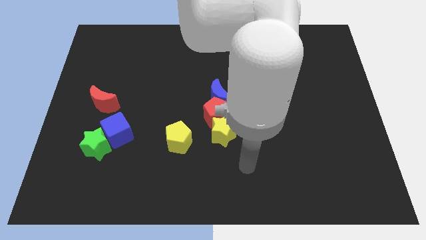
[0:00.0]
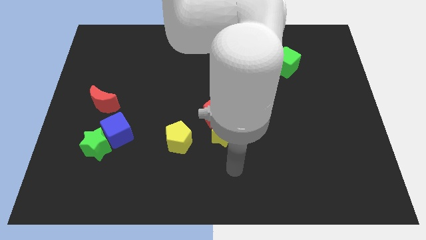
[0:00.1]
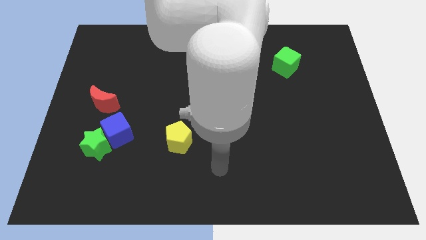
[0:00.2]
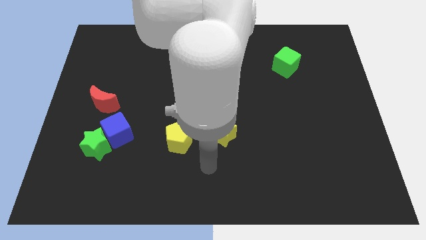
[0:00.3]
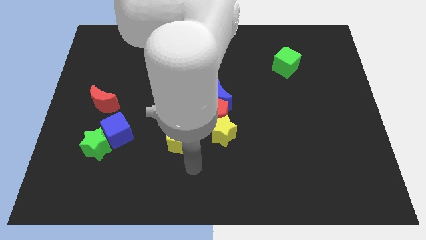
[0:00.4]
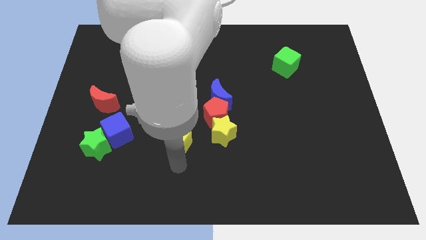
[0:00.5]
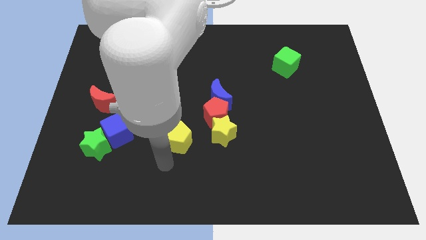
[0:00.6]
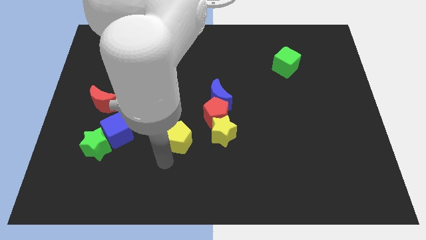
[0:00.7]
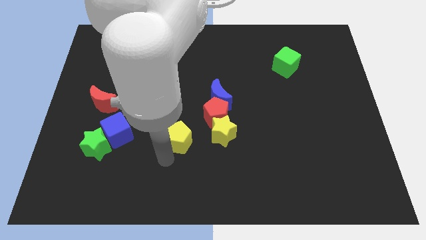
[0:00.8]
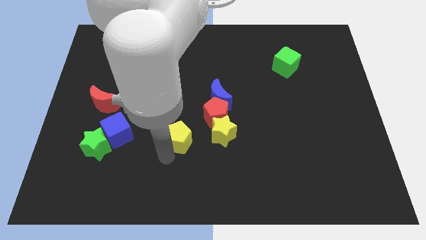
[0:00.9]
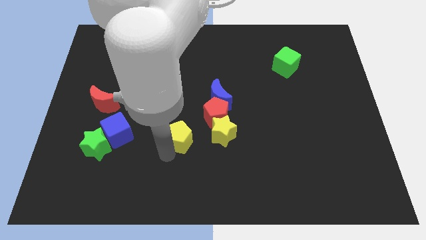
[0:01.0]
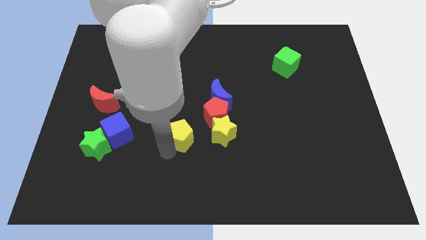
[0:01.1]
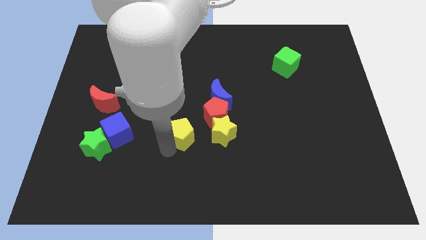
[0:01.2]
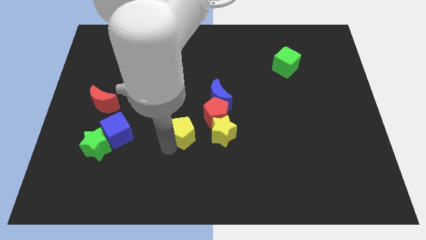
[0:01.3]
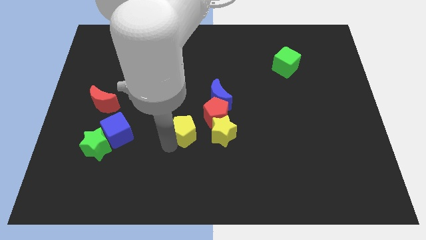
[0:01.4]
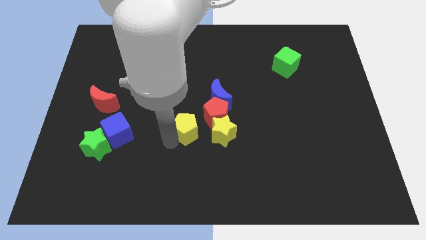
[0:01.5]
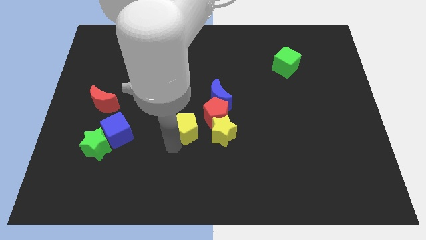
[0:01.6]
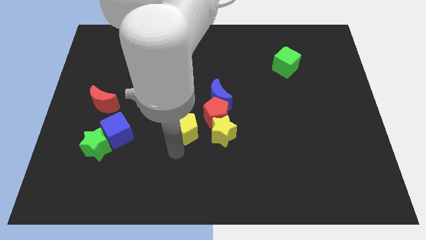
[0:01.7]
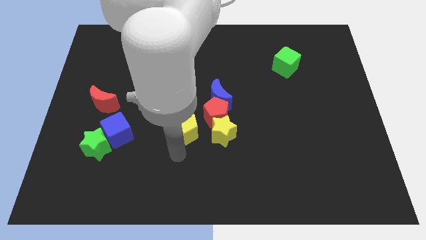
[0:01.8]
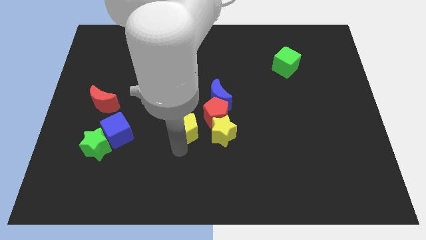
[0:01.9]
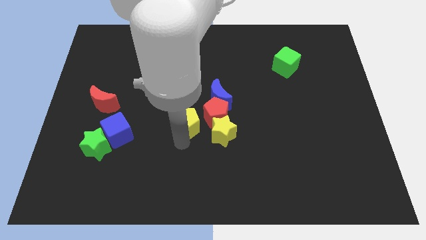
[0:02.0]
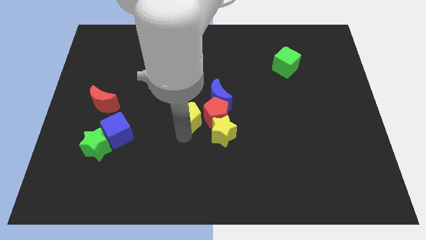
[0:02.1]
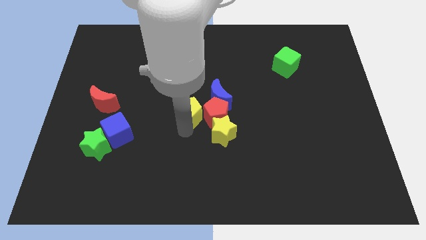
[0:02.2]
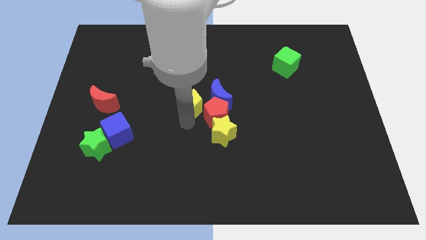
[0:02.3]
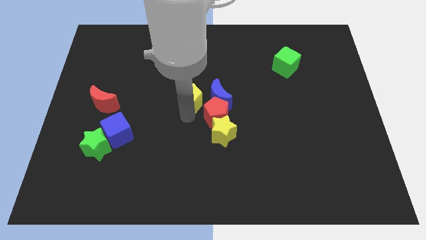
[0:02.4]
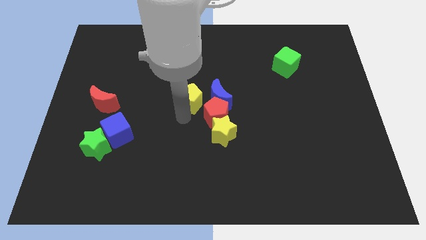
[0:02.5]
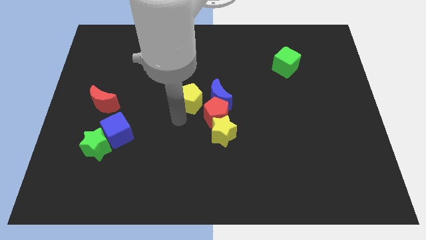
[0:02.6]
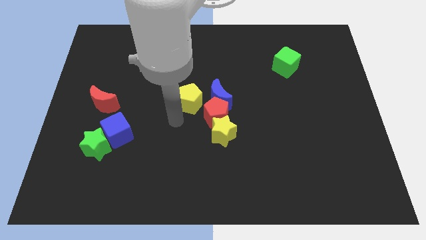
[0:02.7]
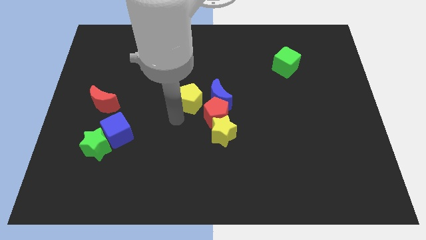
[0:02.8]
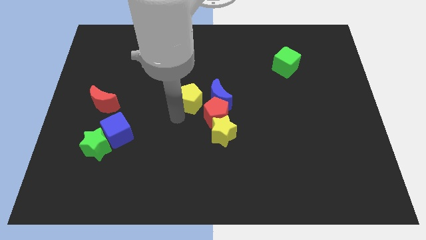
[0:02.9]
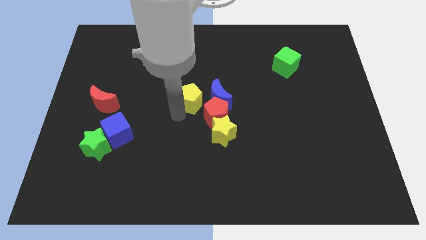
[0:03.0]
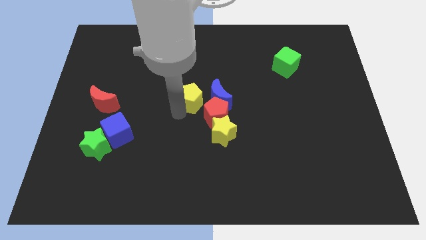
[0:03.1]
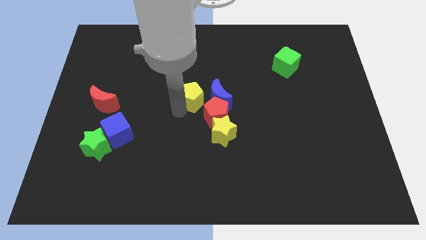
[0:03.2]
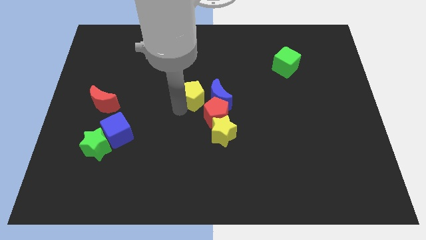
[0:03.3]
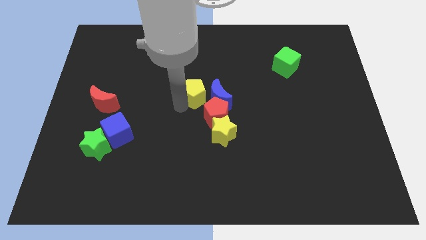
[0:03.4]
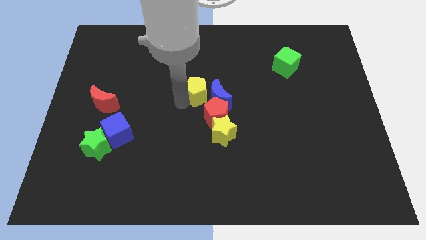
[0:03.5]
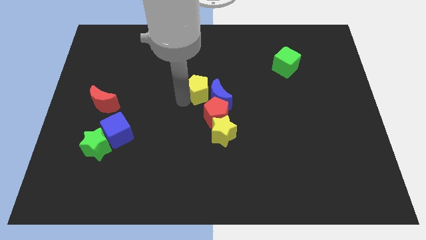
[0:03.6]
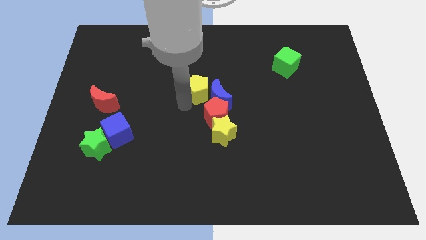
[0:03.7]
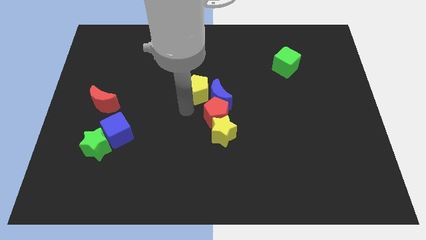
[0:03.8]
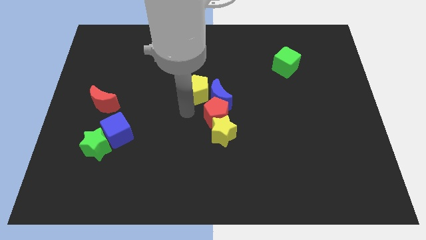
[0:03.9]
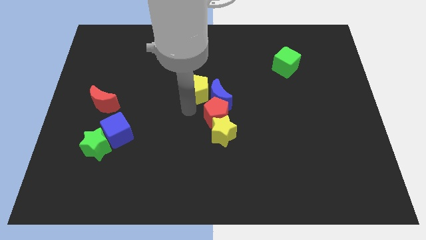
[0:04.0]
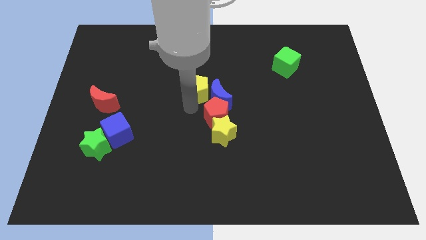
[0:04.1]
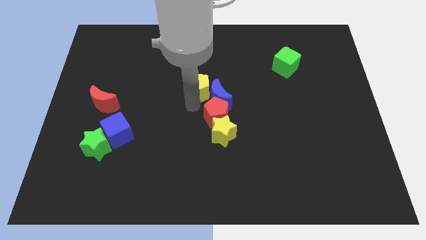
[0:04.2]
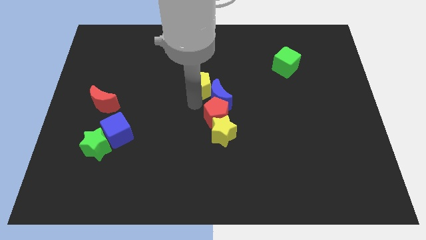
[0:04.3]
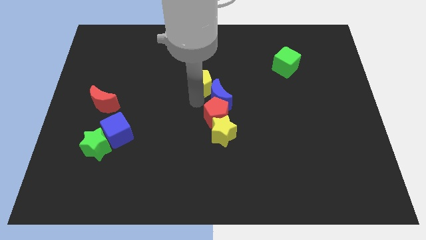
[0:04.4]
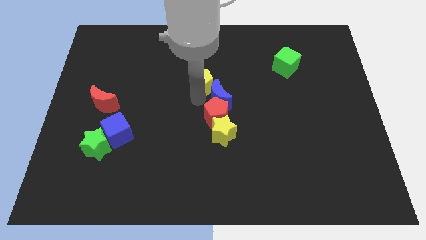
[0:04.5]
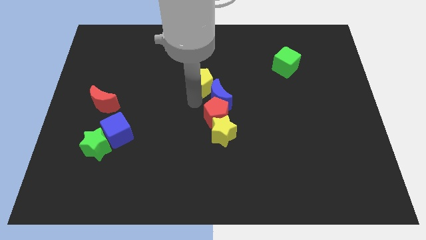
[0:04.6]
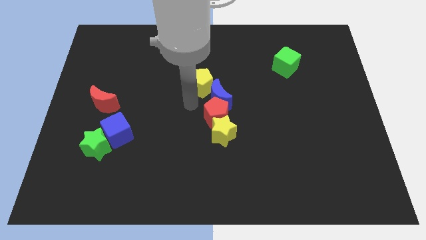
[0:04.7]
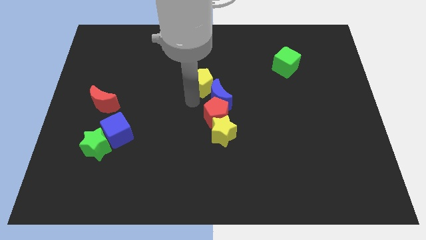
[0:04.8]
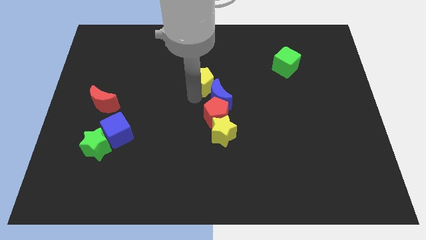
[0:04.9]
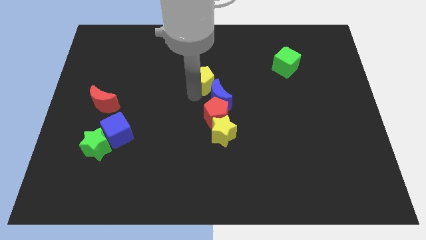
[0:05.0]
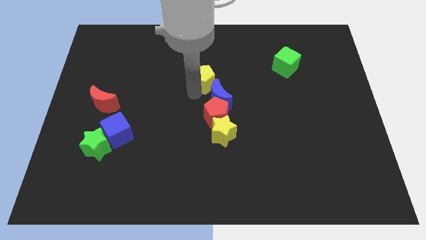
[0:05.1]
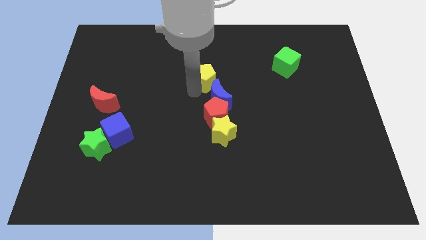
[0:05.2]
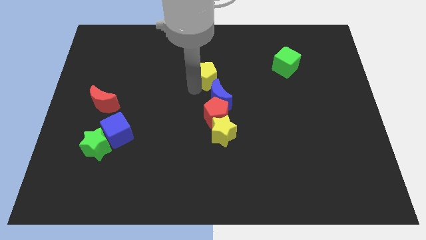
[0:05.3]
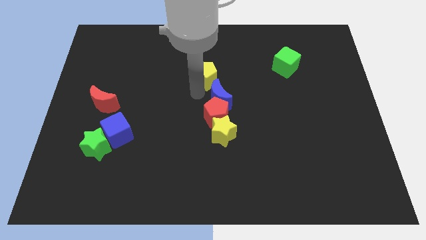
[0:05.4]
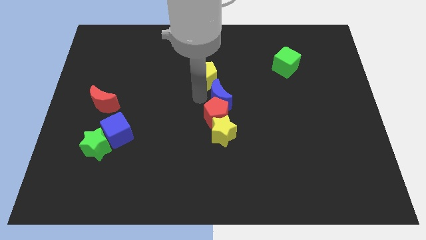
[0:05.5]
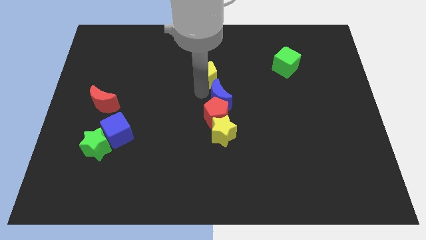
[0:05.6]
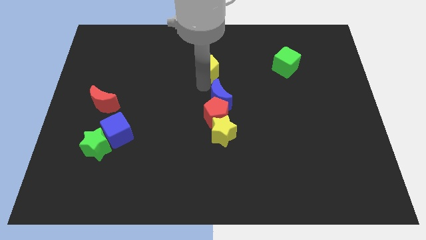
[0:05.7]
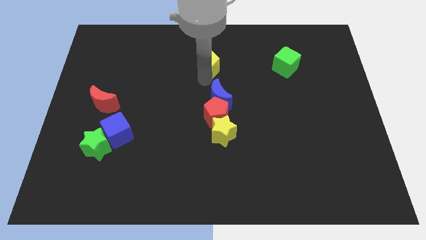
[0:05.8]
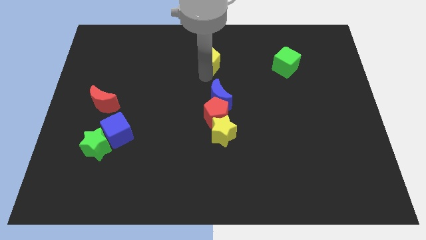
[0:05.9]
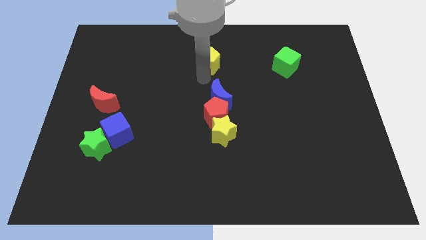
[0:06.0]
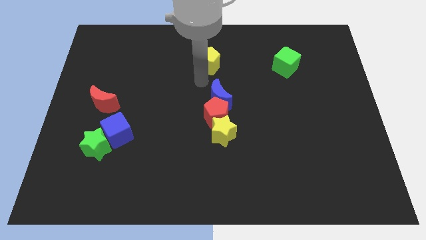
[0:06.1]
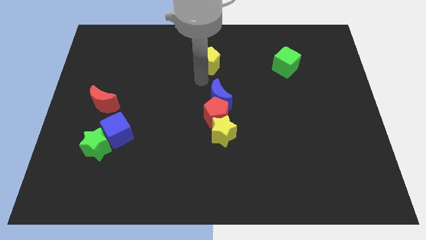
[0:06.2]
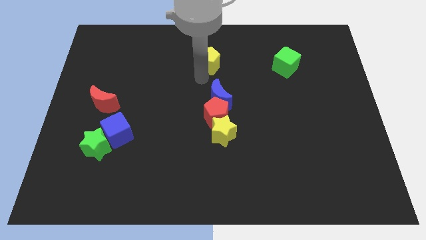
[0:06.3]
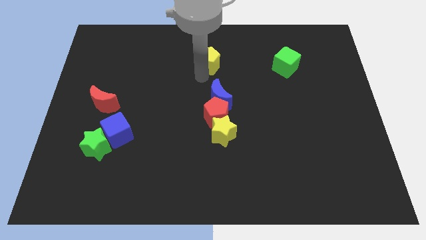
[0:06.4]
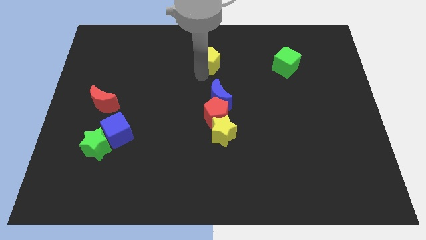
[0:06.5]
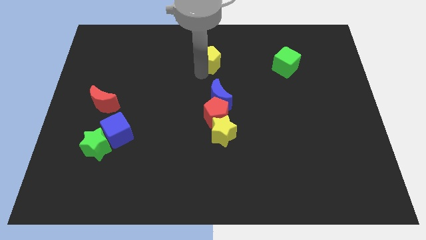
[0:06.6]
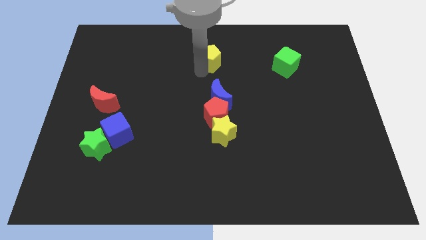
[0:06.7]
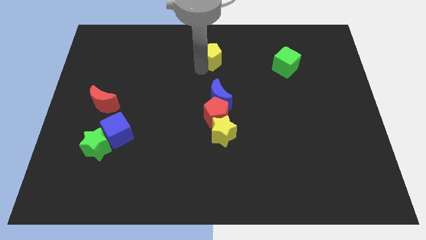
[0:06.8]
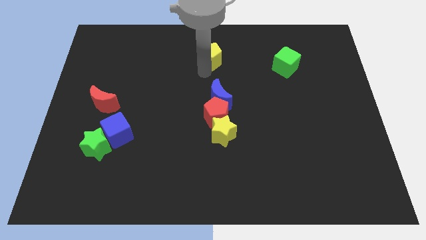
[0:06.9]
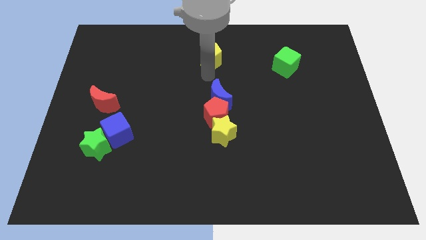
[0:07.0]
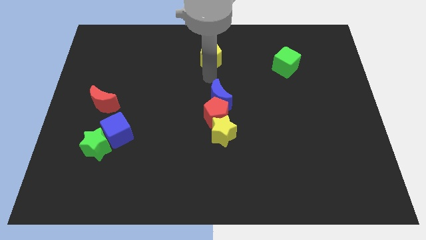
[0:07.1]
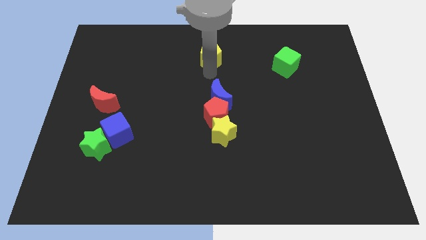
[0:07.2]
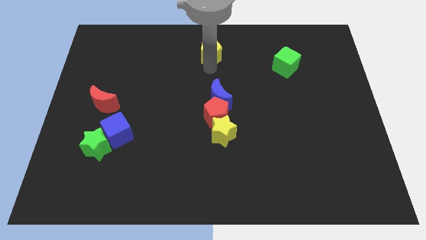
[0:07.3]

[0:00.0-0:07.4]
move the yellow pentagon to the top

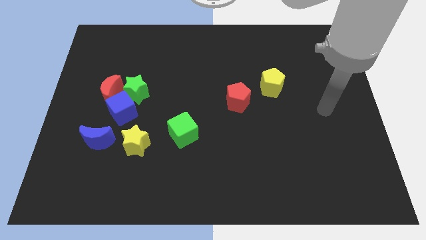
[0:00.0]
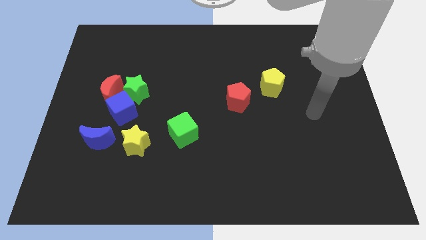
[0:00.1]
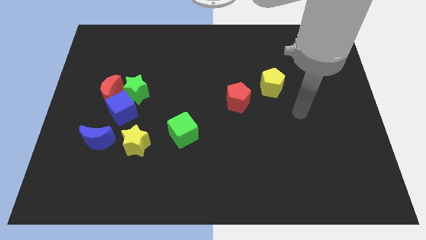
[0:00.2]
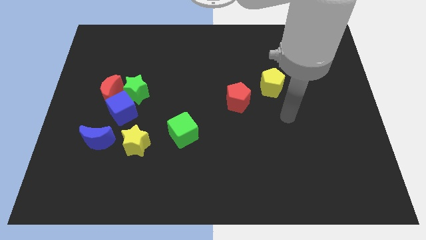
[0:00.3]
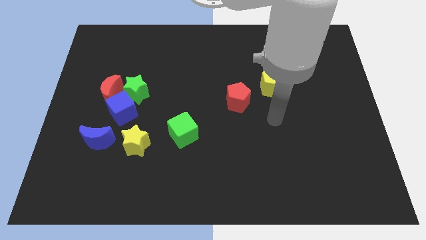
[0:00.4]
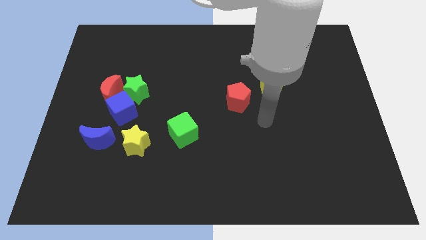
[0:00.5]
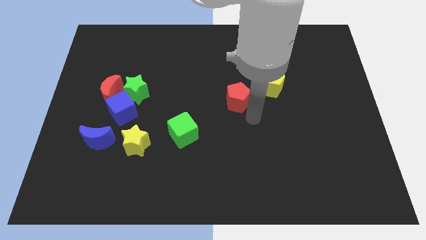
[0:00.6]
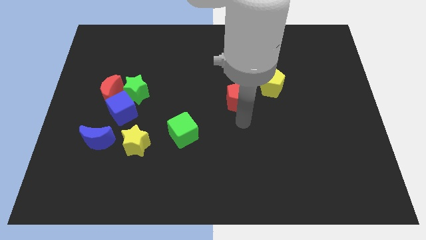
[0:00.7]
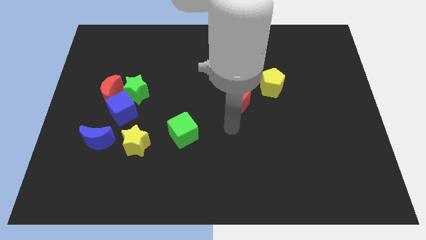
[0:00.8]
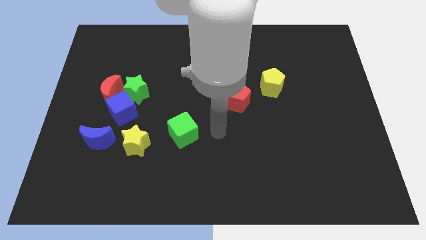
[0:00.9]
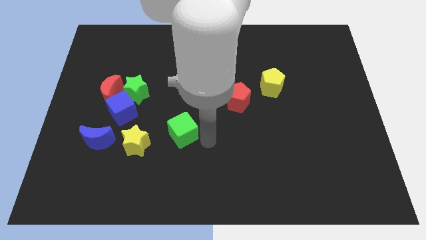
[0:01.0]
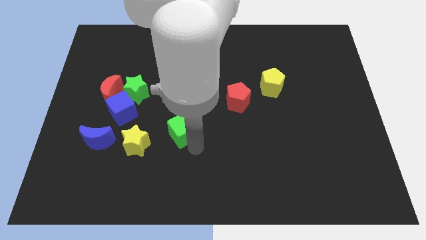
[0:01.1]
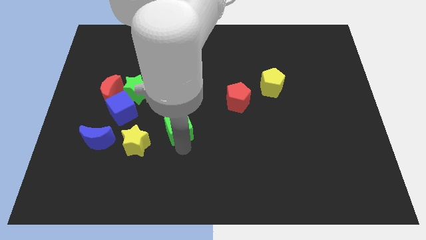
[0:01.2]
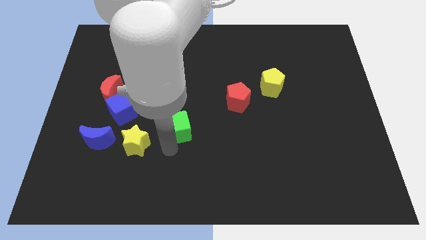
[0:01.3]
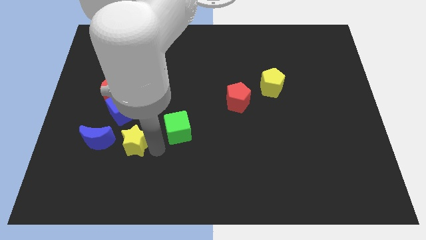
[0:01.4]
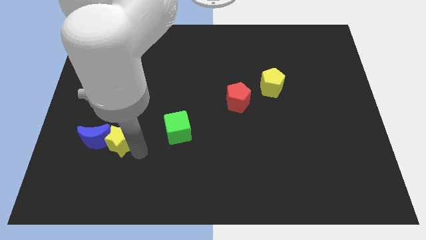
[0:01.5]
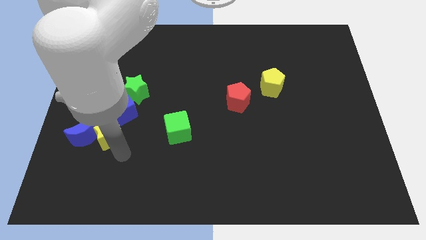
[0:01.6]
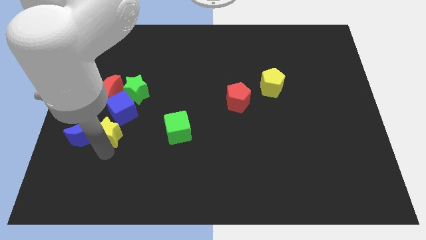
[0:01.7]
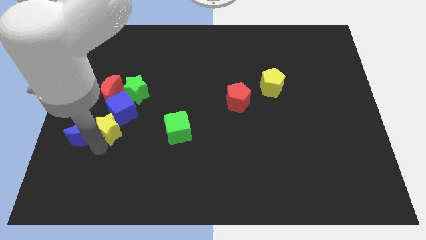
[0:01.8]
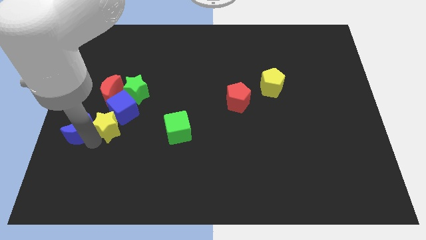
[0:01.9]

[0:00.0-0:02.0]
move the blue moon to the left side
